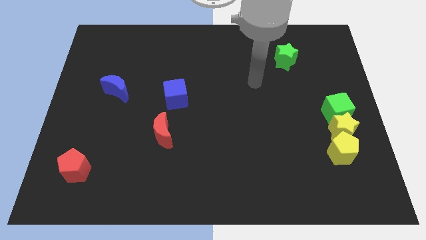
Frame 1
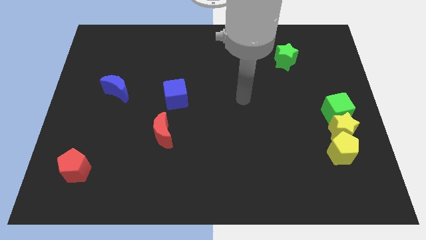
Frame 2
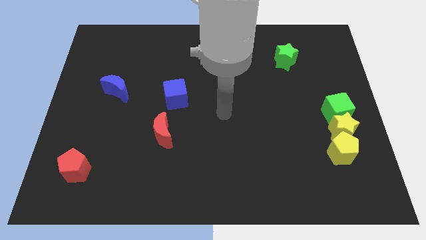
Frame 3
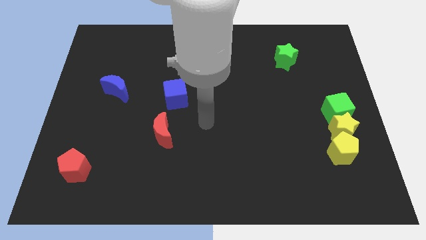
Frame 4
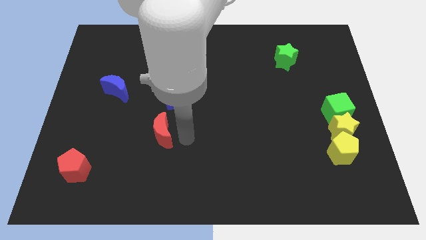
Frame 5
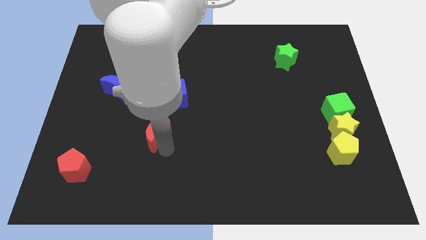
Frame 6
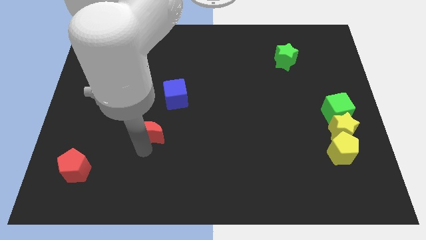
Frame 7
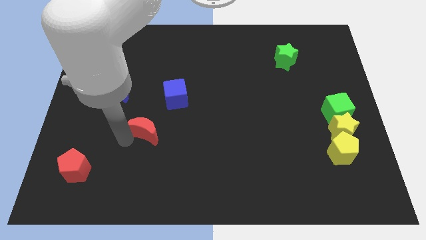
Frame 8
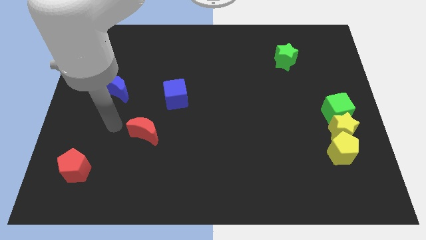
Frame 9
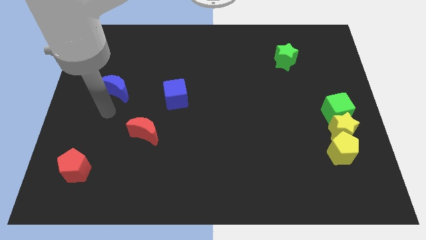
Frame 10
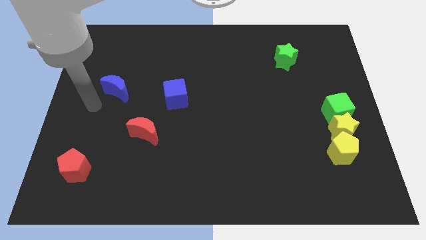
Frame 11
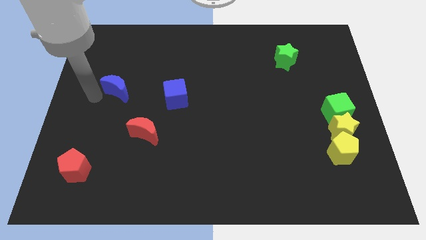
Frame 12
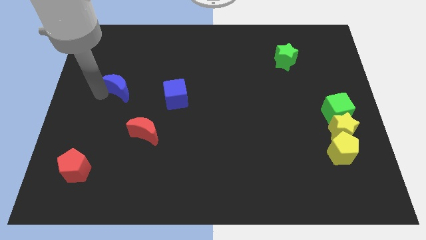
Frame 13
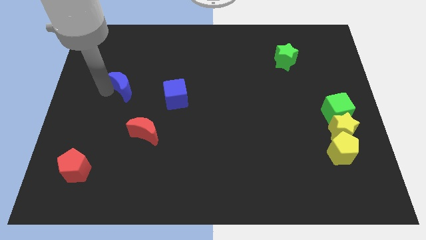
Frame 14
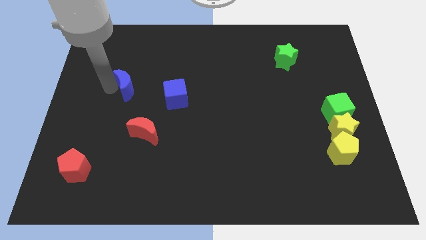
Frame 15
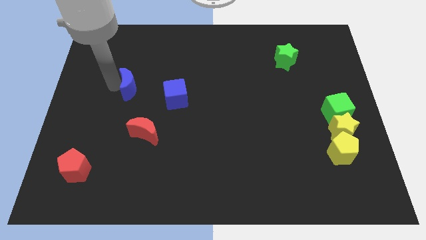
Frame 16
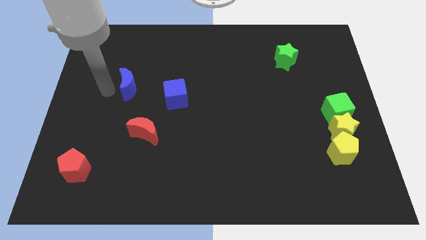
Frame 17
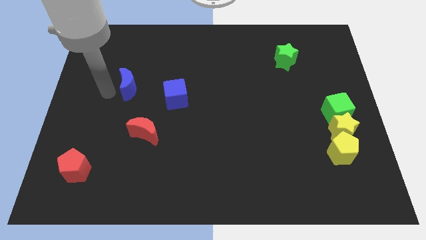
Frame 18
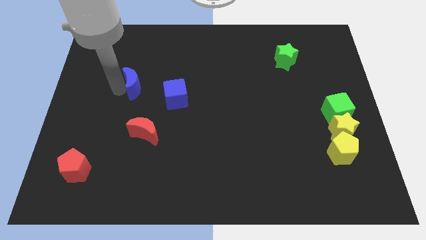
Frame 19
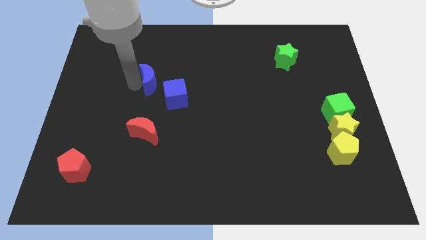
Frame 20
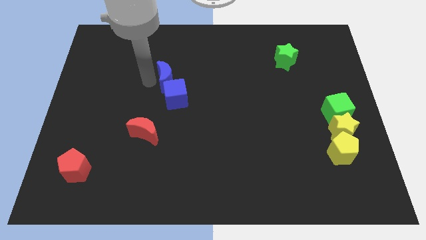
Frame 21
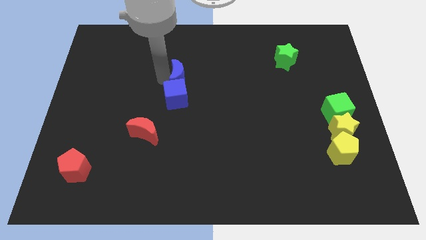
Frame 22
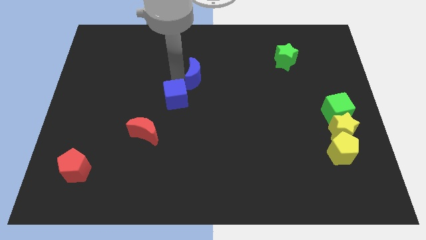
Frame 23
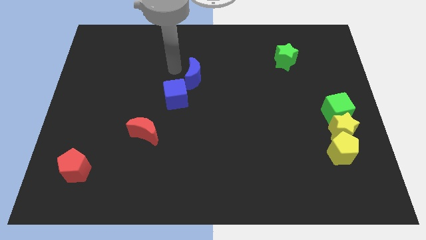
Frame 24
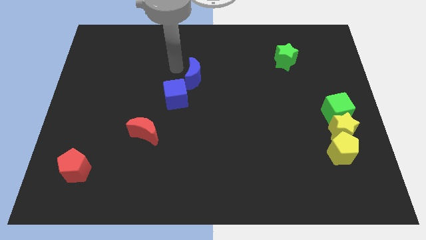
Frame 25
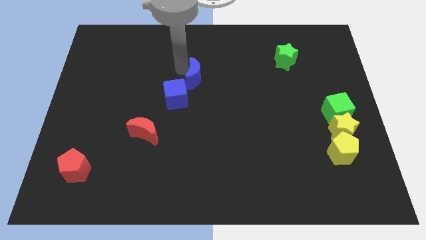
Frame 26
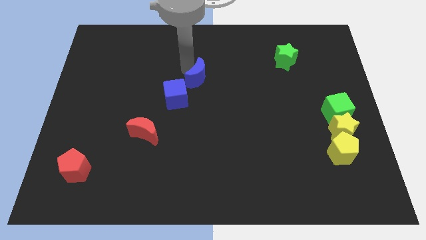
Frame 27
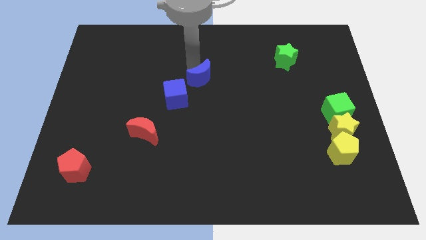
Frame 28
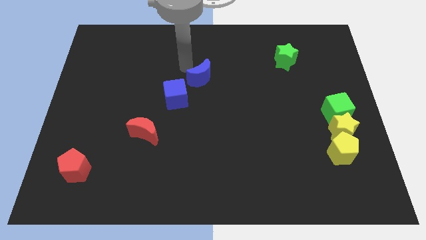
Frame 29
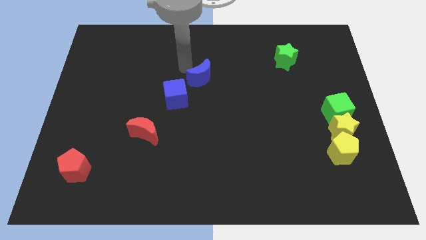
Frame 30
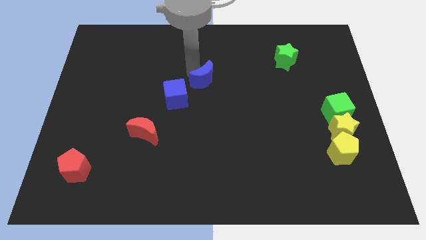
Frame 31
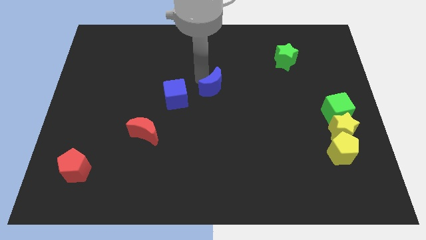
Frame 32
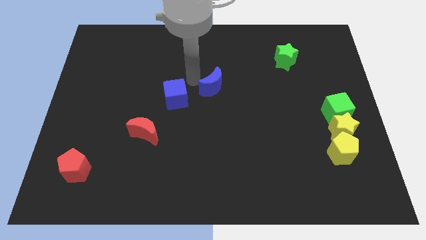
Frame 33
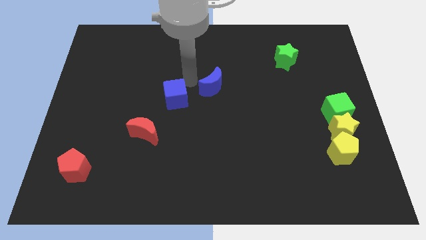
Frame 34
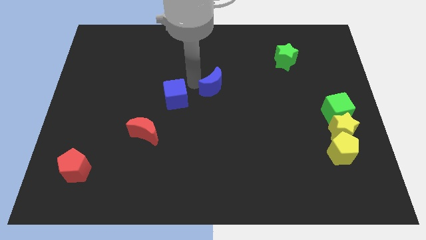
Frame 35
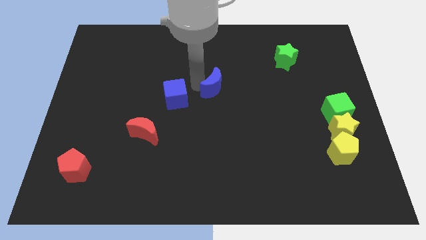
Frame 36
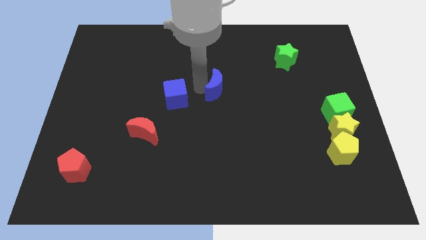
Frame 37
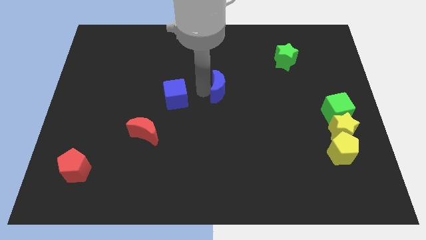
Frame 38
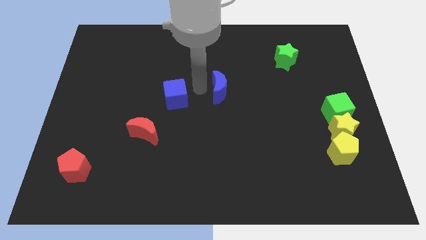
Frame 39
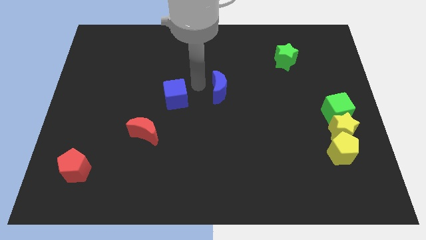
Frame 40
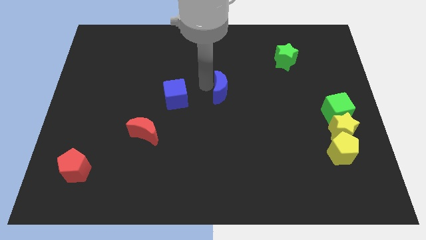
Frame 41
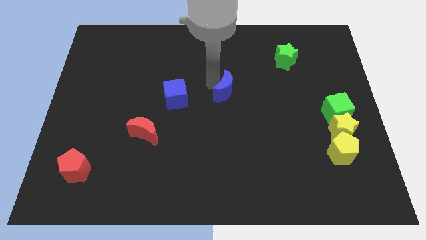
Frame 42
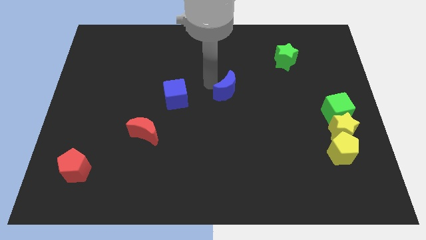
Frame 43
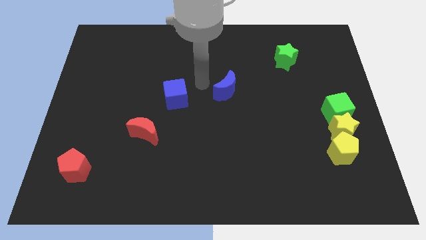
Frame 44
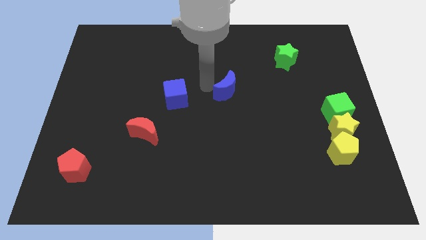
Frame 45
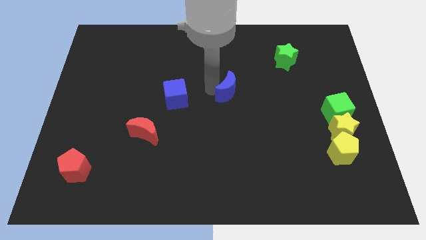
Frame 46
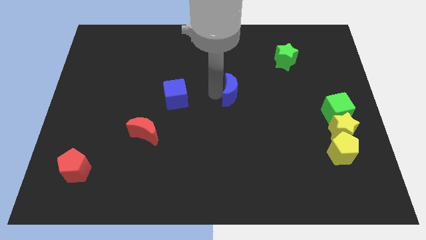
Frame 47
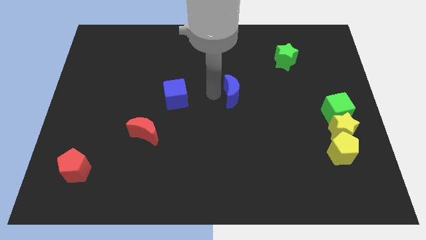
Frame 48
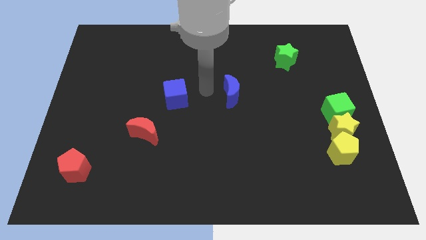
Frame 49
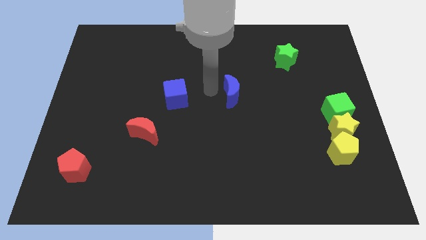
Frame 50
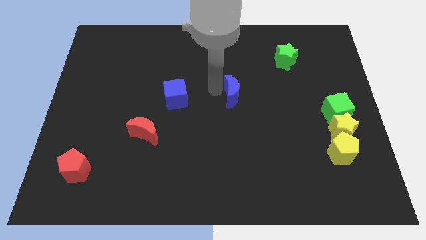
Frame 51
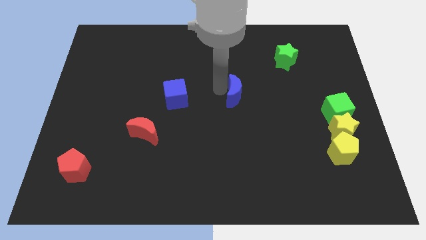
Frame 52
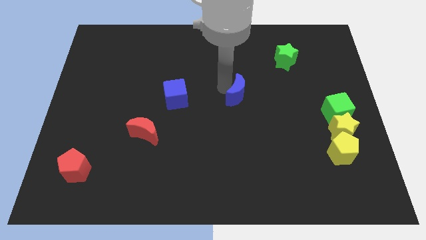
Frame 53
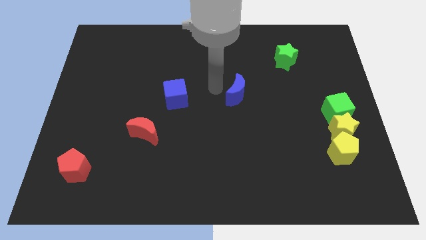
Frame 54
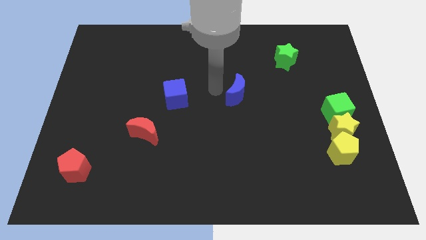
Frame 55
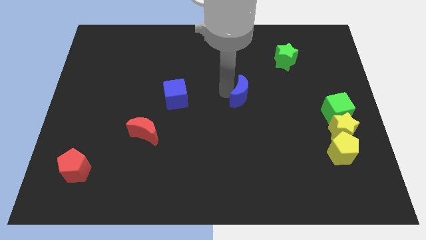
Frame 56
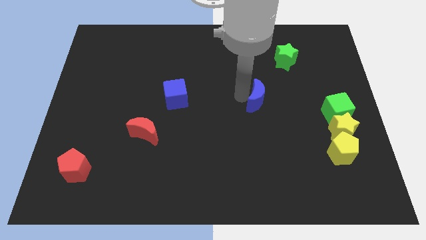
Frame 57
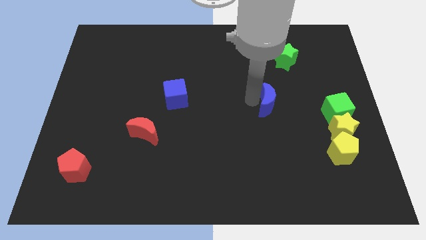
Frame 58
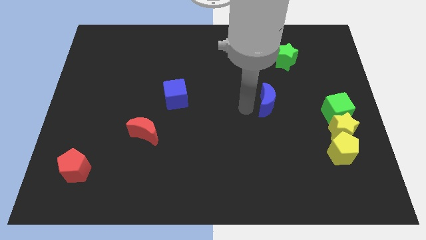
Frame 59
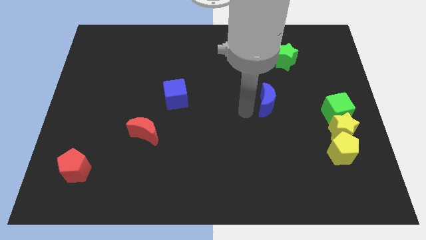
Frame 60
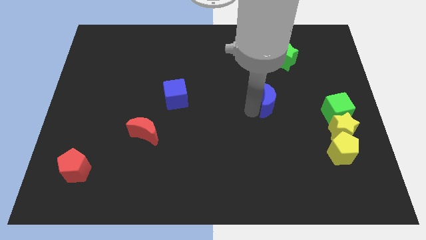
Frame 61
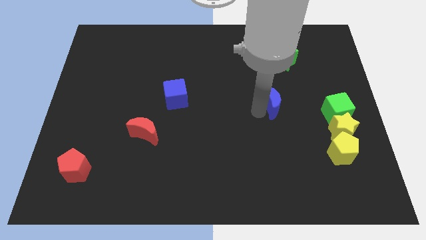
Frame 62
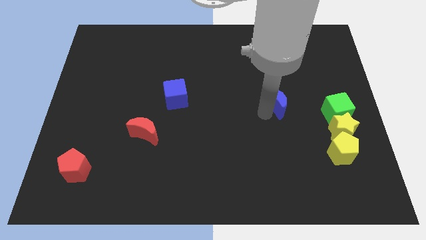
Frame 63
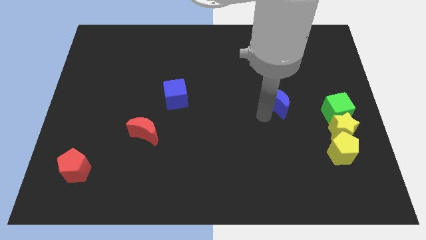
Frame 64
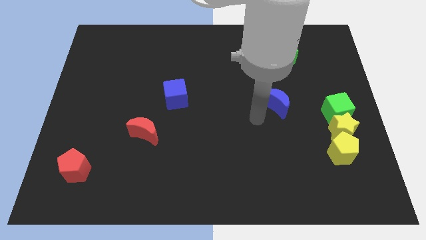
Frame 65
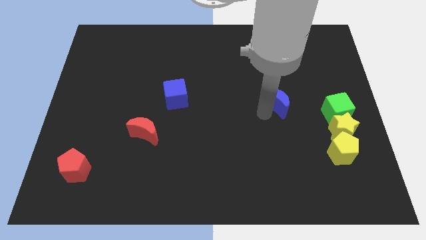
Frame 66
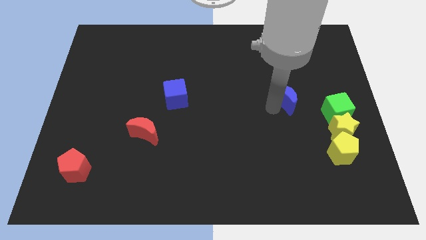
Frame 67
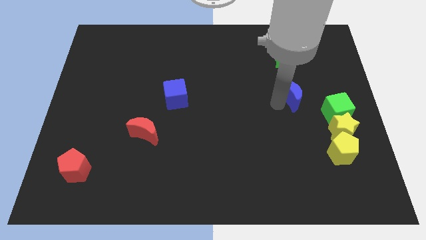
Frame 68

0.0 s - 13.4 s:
put the blue moon to the top left of the green cube

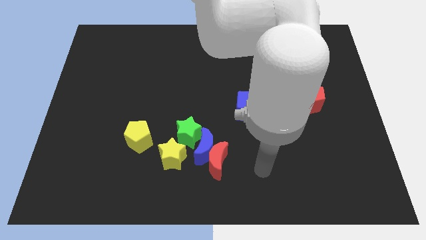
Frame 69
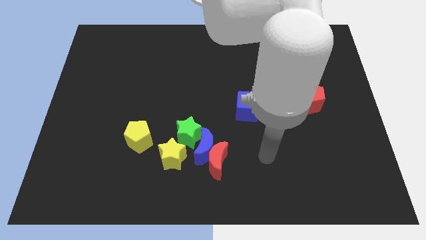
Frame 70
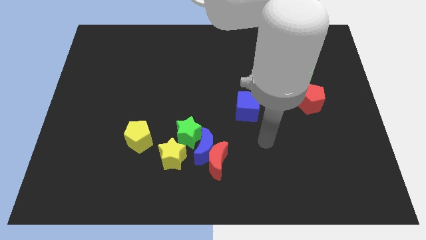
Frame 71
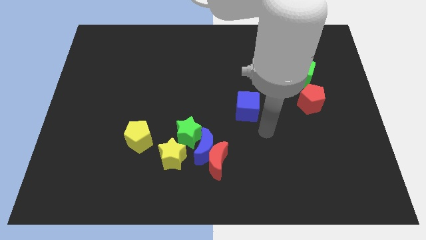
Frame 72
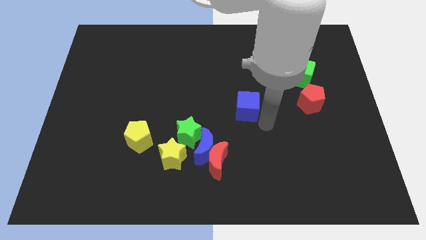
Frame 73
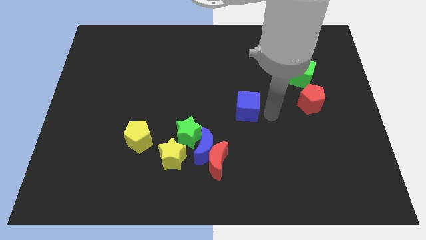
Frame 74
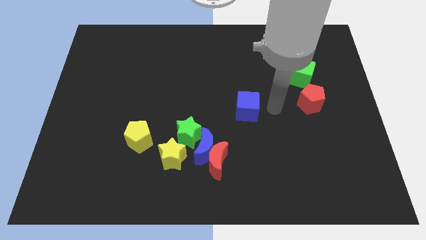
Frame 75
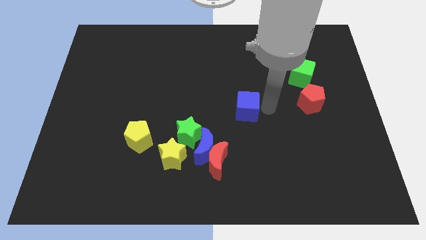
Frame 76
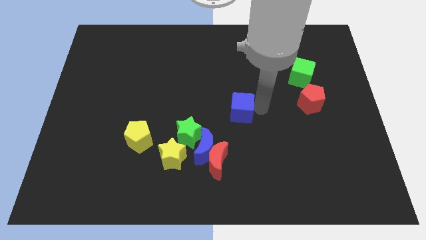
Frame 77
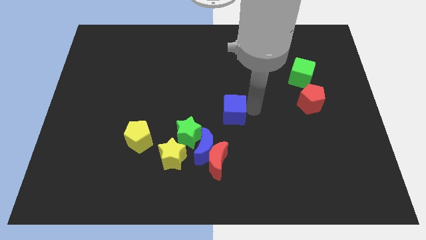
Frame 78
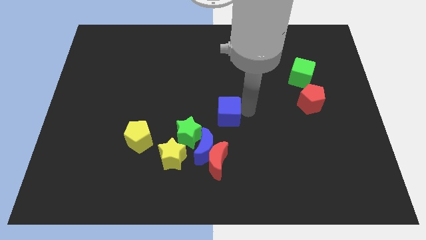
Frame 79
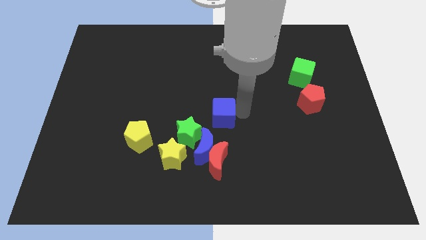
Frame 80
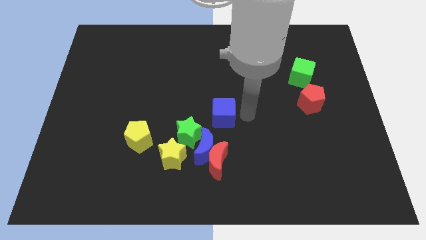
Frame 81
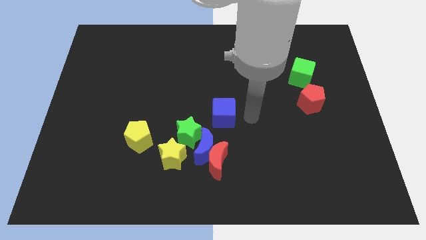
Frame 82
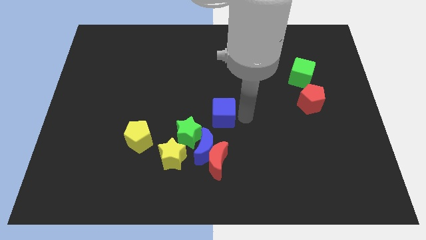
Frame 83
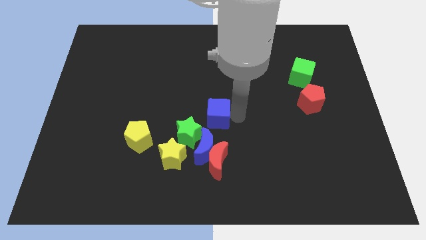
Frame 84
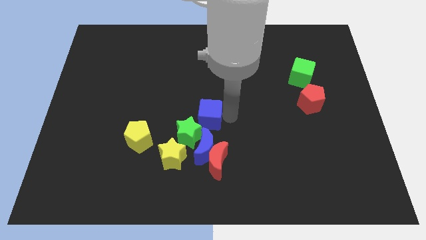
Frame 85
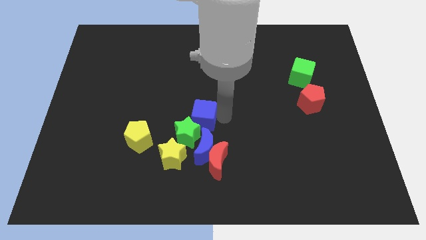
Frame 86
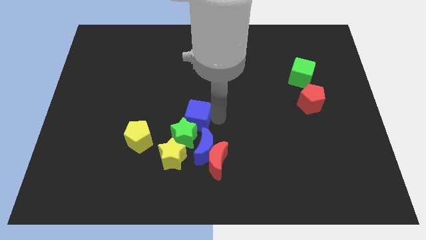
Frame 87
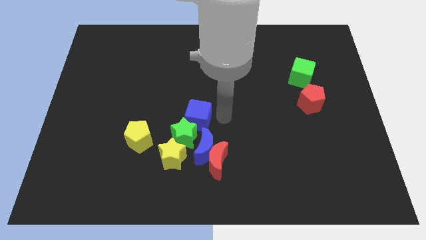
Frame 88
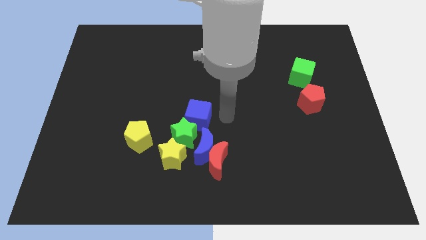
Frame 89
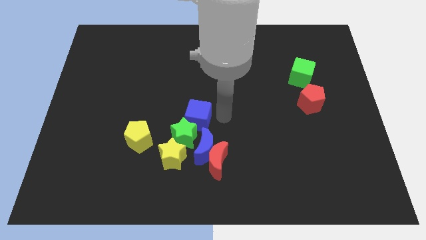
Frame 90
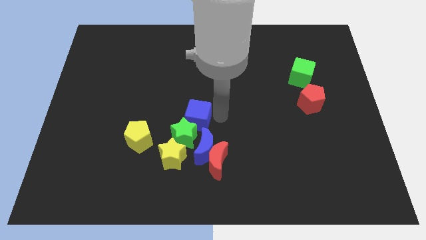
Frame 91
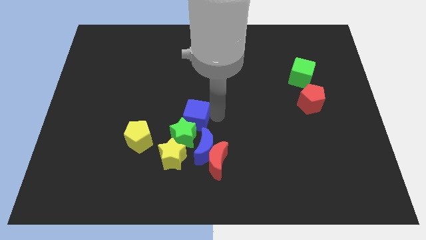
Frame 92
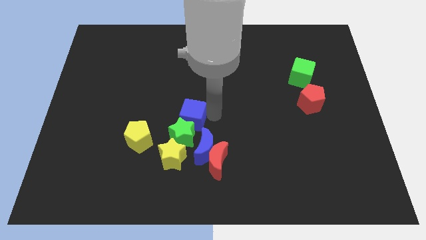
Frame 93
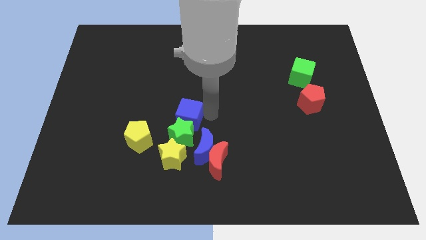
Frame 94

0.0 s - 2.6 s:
slide the blue cube to the top right side of the yellow pentagon
